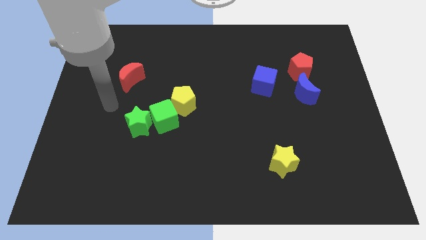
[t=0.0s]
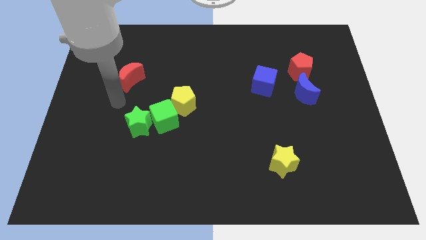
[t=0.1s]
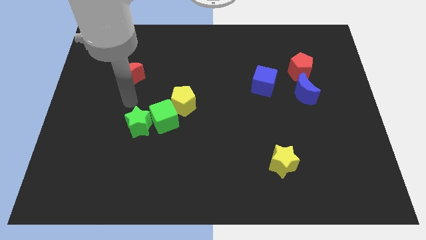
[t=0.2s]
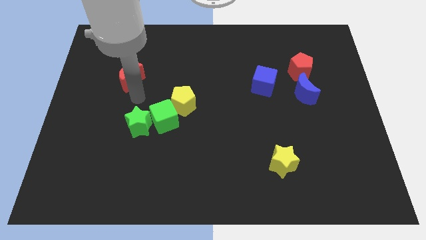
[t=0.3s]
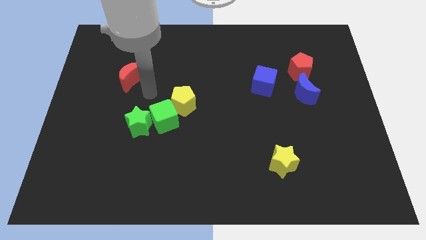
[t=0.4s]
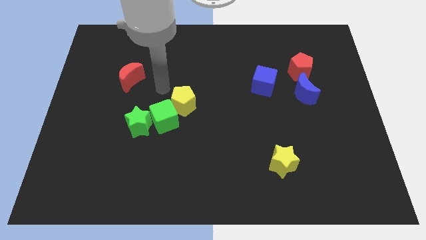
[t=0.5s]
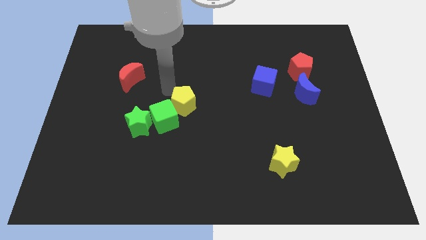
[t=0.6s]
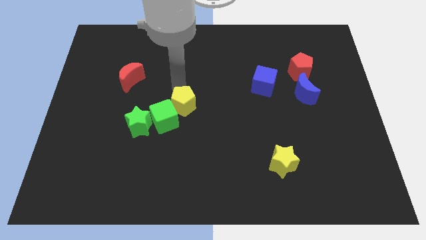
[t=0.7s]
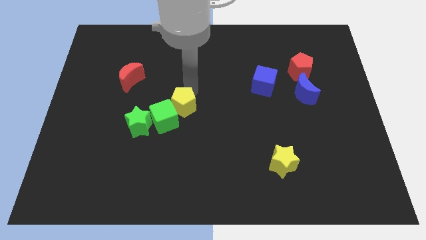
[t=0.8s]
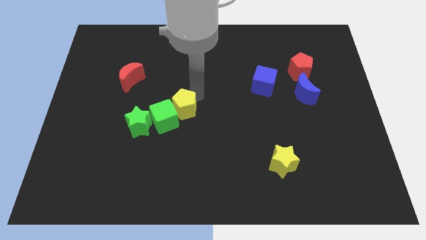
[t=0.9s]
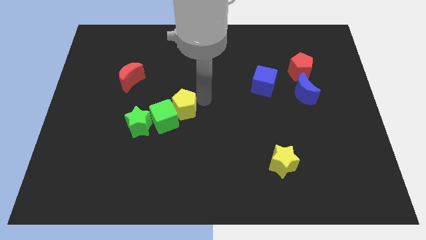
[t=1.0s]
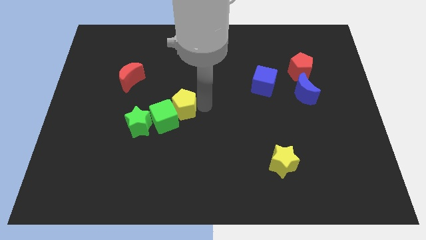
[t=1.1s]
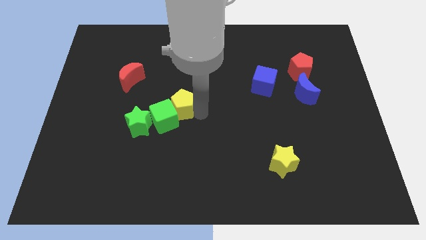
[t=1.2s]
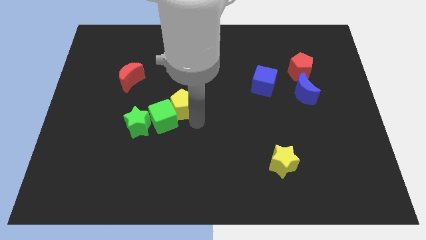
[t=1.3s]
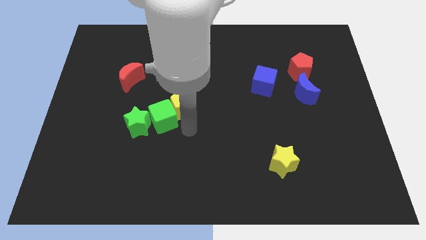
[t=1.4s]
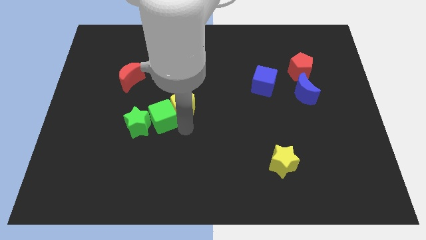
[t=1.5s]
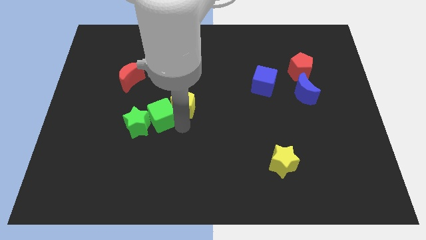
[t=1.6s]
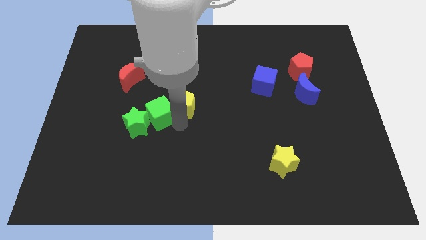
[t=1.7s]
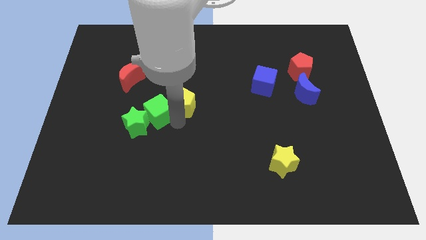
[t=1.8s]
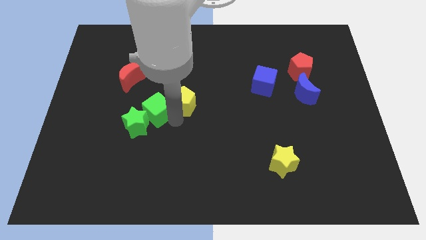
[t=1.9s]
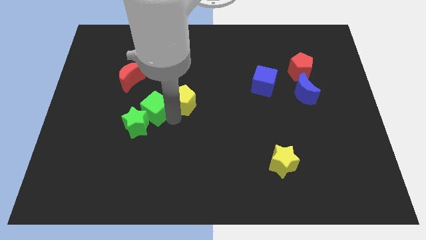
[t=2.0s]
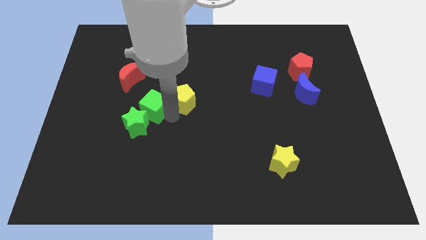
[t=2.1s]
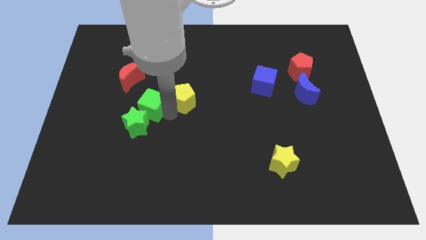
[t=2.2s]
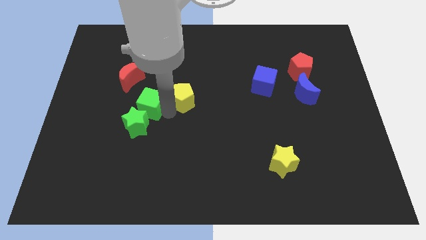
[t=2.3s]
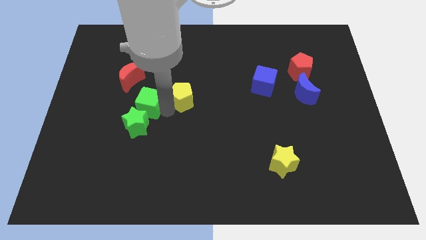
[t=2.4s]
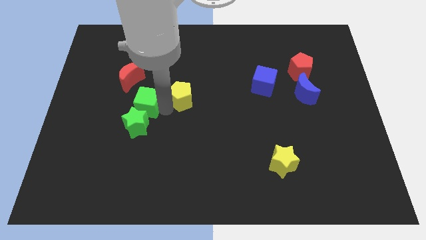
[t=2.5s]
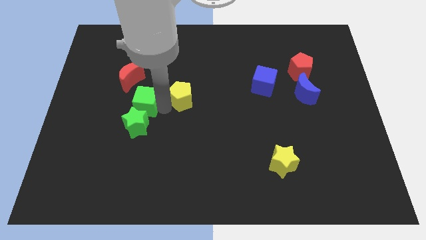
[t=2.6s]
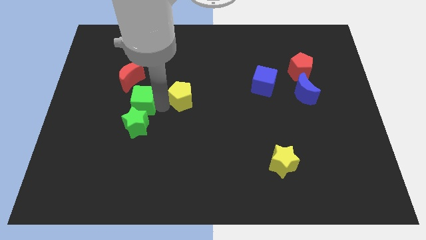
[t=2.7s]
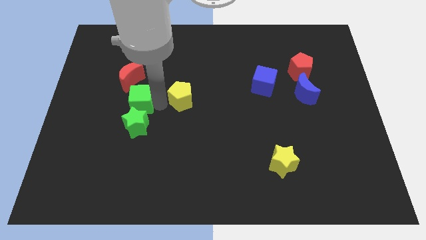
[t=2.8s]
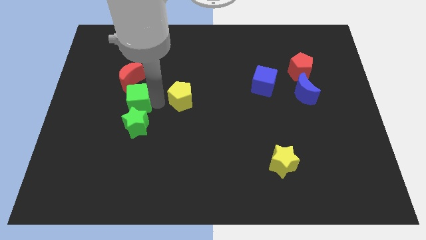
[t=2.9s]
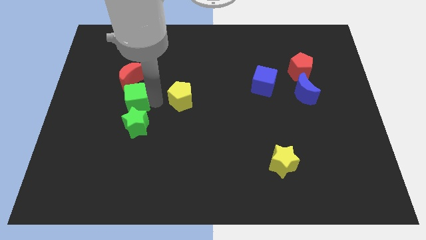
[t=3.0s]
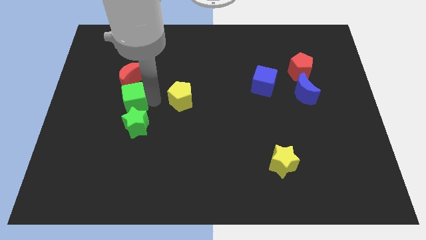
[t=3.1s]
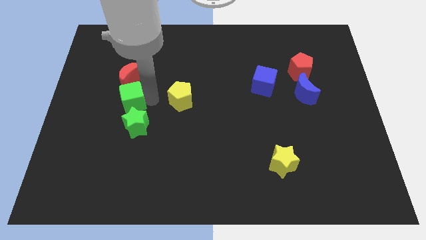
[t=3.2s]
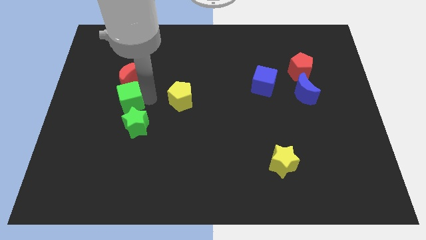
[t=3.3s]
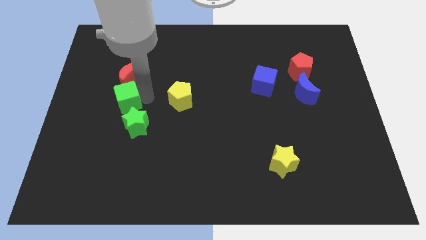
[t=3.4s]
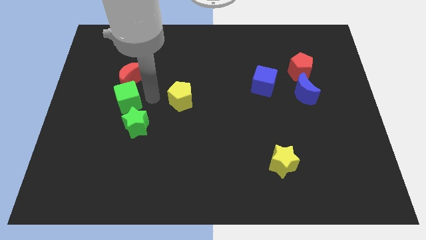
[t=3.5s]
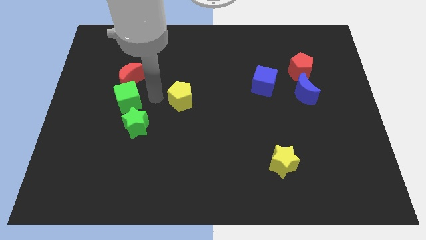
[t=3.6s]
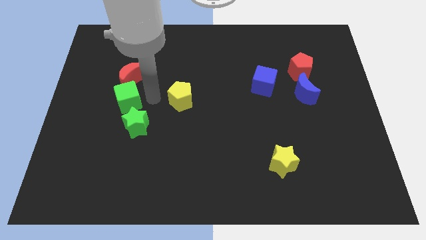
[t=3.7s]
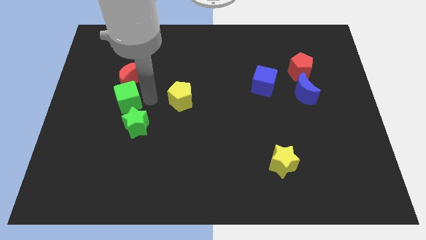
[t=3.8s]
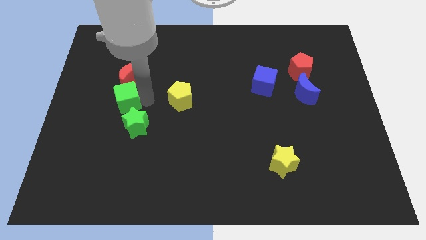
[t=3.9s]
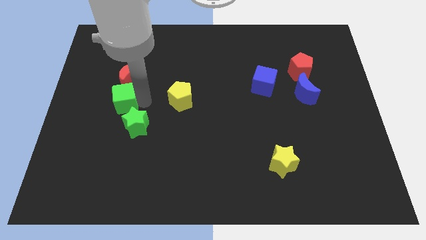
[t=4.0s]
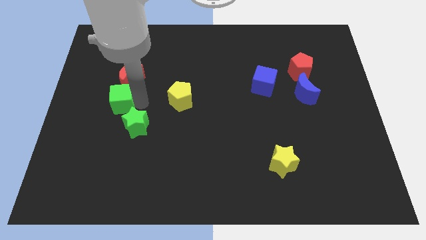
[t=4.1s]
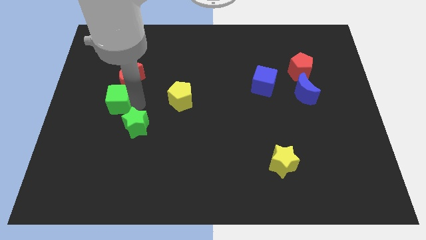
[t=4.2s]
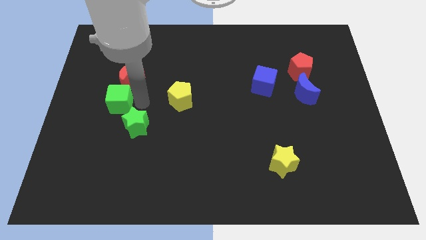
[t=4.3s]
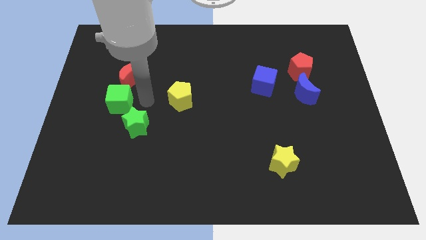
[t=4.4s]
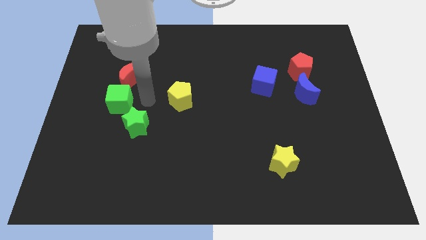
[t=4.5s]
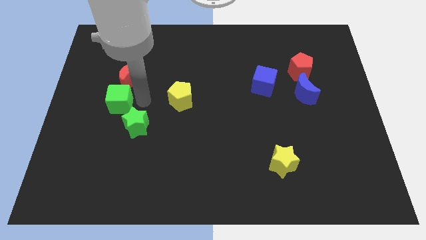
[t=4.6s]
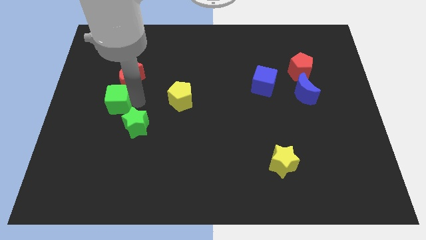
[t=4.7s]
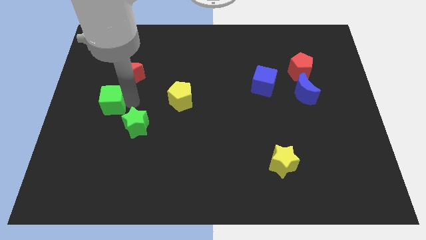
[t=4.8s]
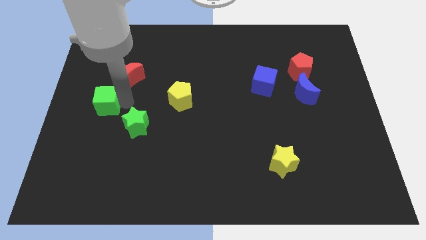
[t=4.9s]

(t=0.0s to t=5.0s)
slide the green cube to the left side

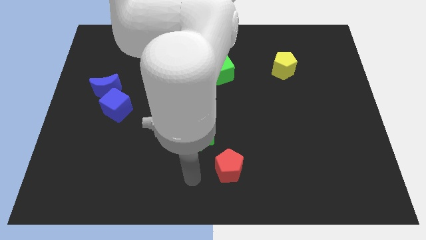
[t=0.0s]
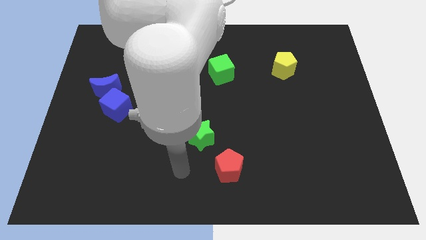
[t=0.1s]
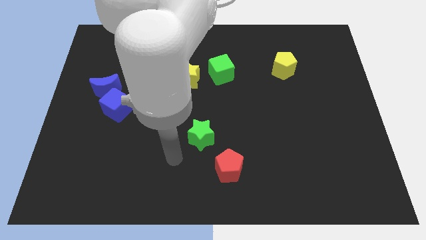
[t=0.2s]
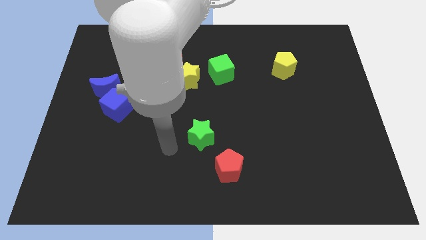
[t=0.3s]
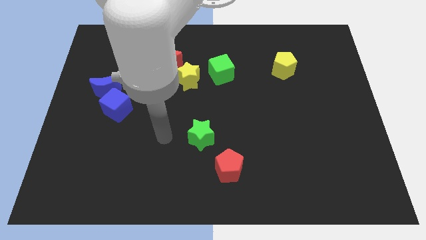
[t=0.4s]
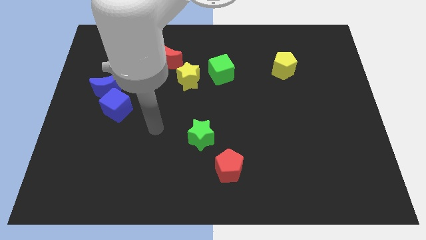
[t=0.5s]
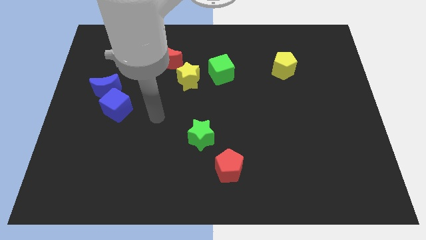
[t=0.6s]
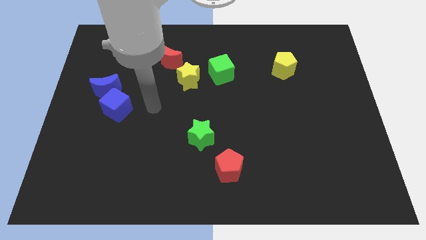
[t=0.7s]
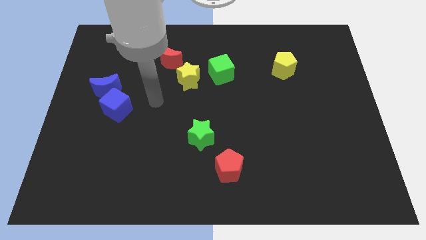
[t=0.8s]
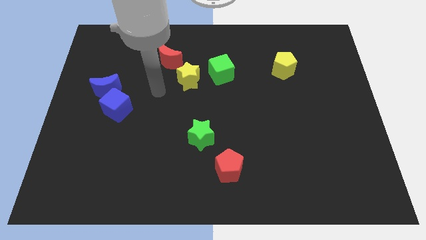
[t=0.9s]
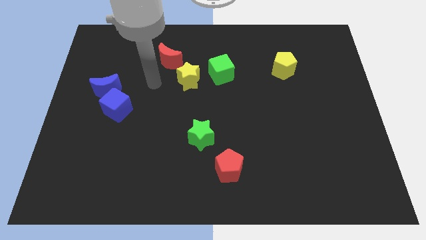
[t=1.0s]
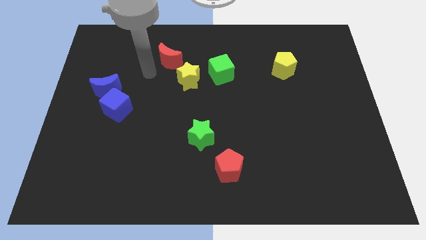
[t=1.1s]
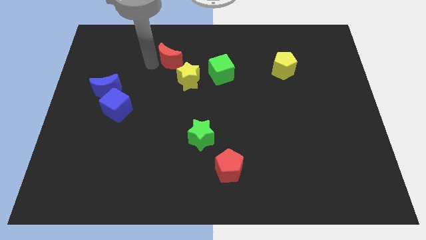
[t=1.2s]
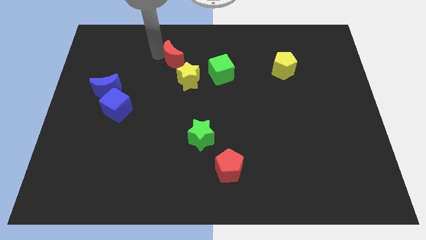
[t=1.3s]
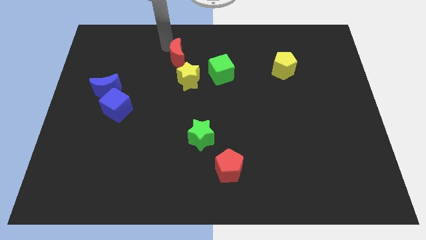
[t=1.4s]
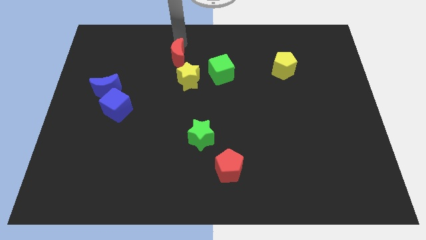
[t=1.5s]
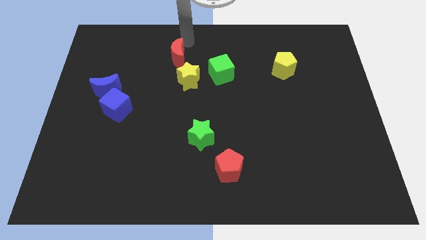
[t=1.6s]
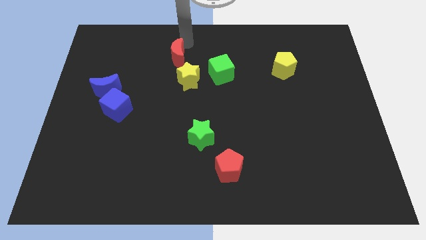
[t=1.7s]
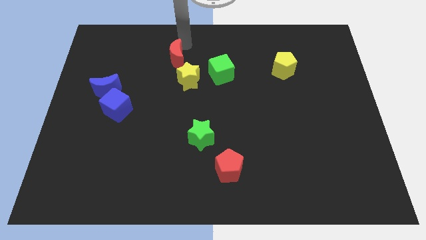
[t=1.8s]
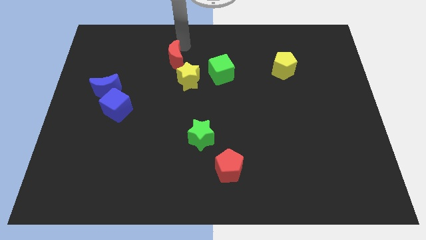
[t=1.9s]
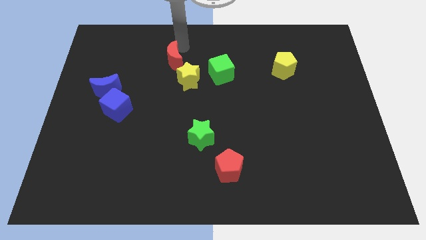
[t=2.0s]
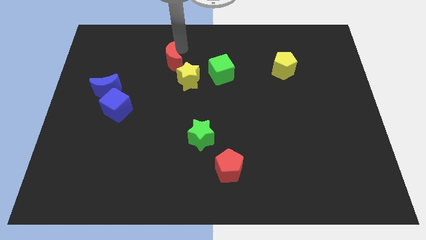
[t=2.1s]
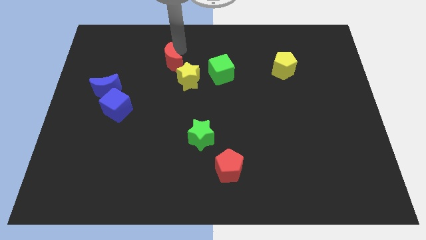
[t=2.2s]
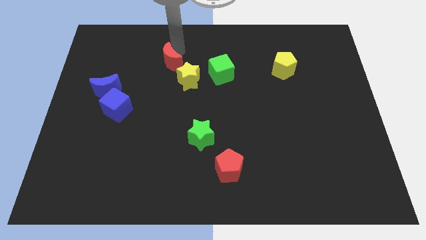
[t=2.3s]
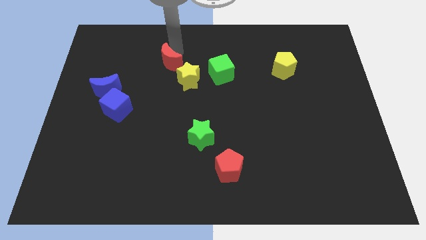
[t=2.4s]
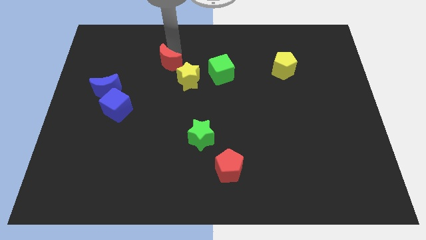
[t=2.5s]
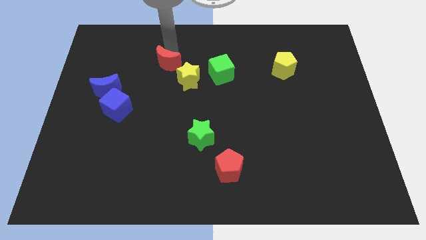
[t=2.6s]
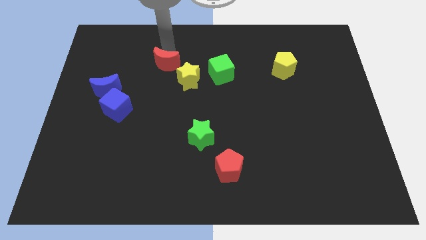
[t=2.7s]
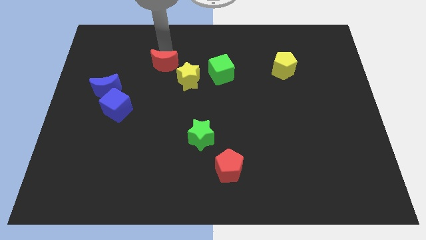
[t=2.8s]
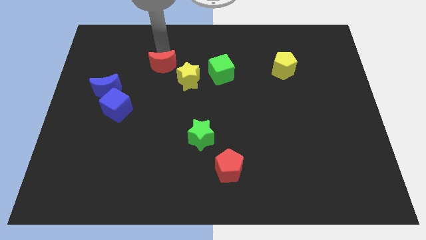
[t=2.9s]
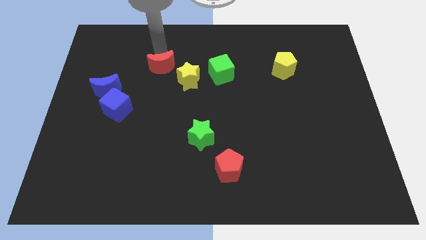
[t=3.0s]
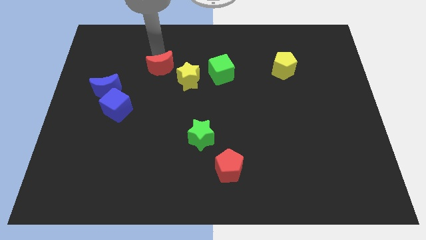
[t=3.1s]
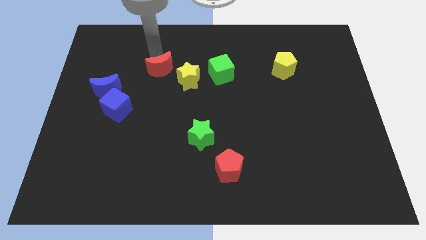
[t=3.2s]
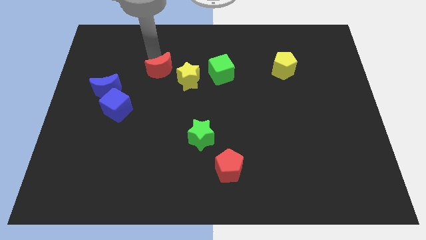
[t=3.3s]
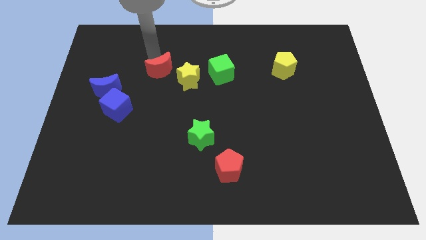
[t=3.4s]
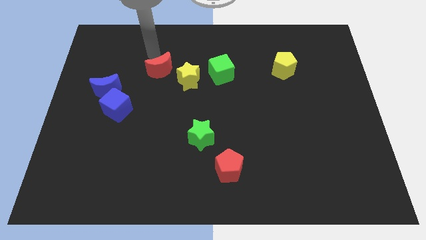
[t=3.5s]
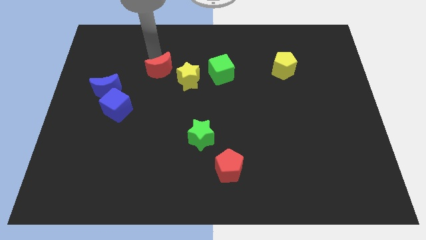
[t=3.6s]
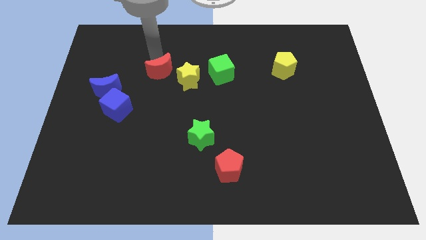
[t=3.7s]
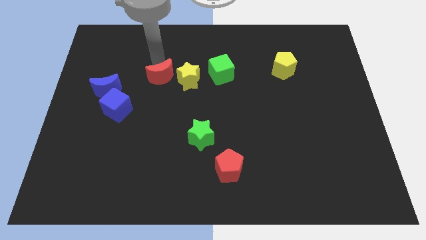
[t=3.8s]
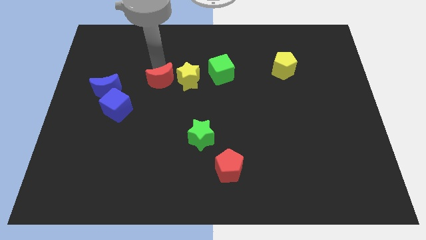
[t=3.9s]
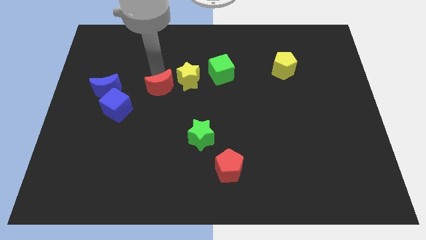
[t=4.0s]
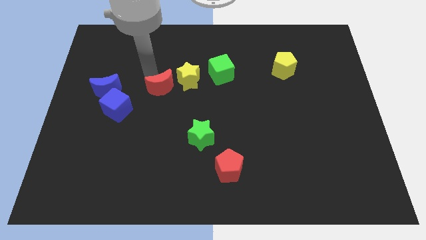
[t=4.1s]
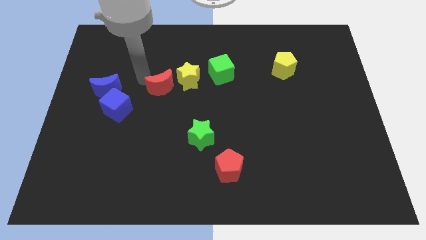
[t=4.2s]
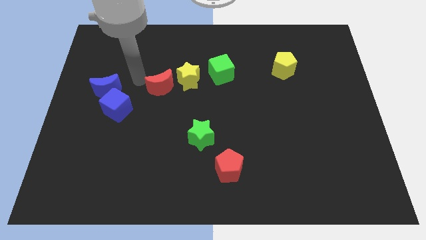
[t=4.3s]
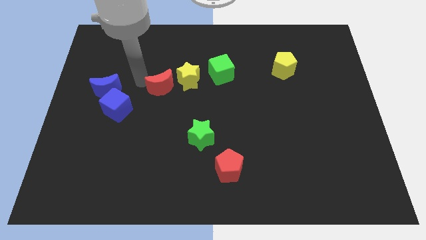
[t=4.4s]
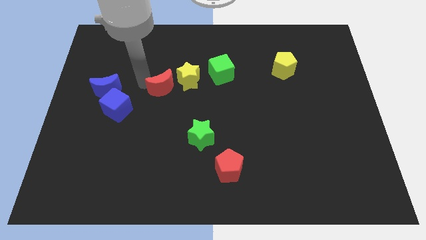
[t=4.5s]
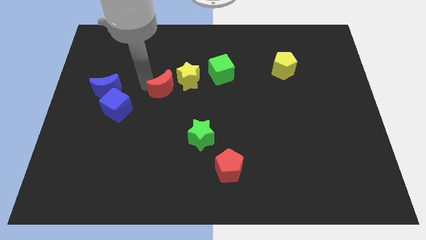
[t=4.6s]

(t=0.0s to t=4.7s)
push the red moon to the middle of the board
